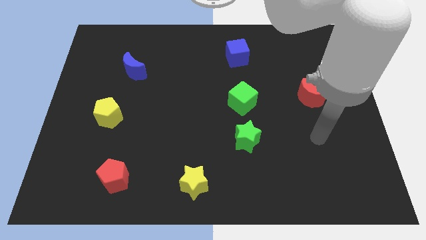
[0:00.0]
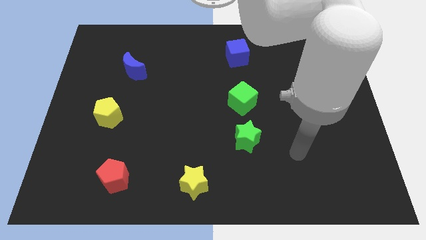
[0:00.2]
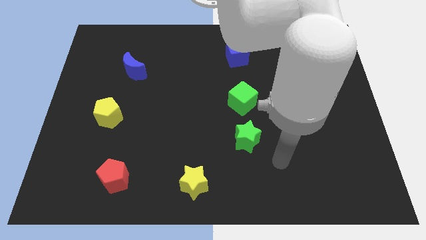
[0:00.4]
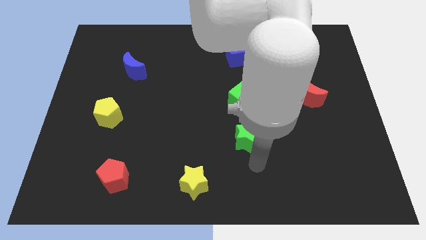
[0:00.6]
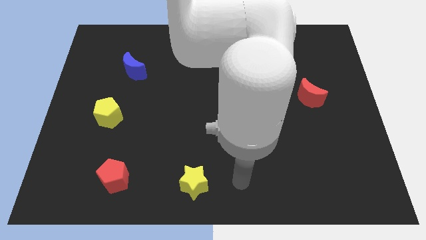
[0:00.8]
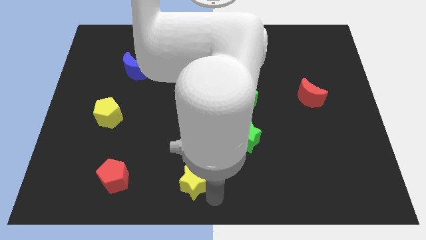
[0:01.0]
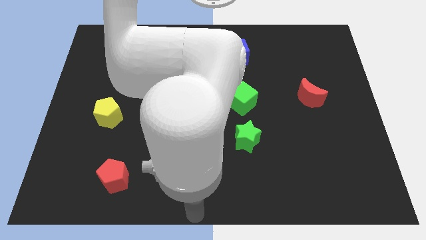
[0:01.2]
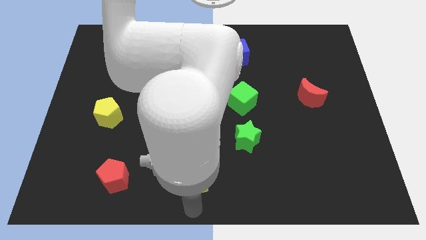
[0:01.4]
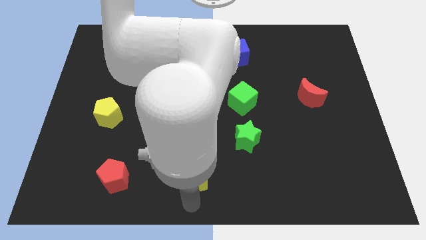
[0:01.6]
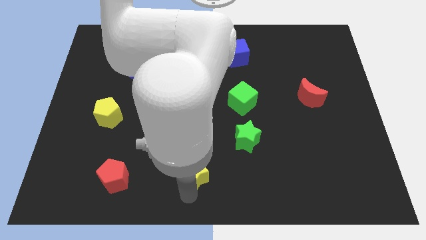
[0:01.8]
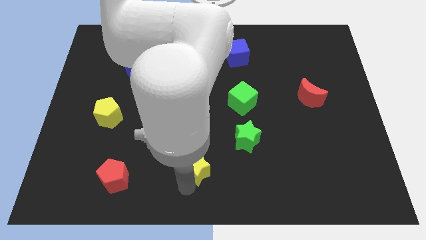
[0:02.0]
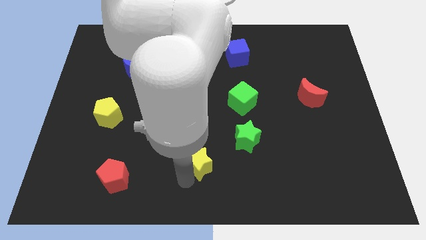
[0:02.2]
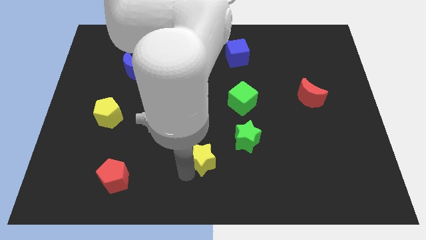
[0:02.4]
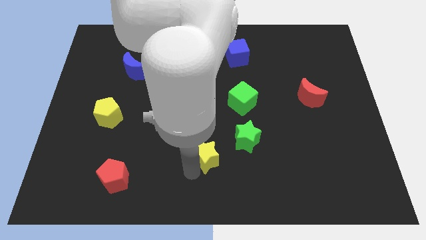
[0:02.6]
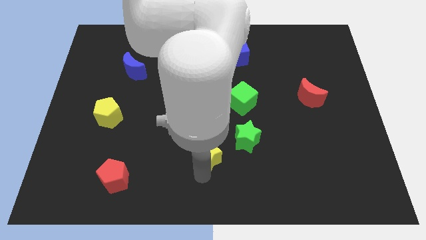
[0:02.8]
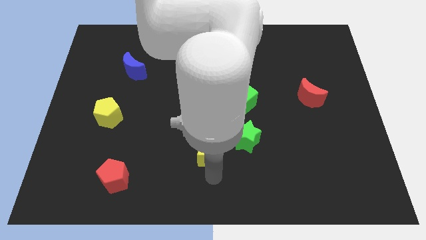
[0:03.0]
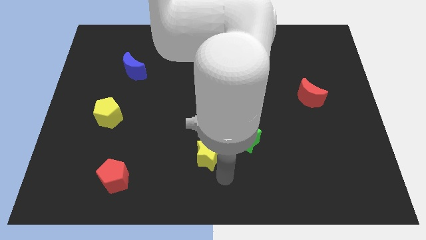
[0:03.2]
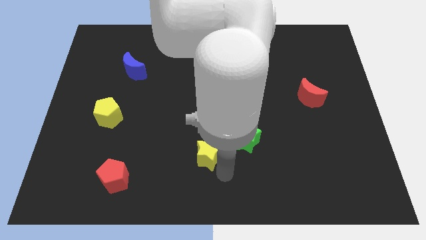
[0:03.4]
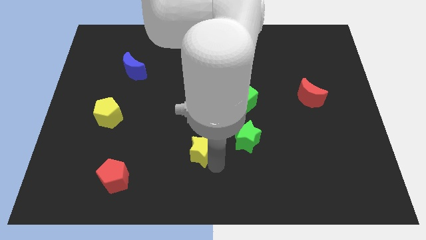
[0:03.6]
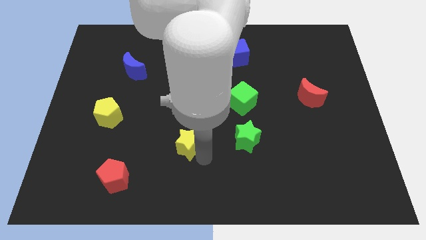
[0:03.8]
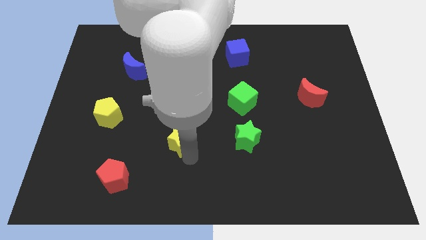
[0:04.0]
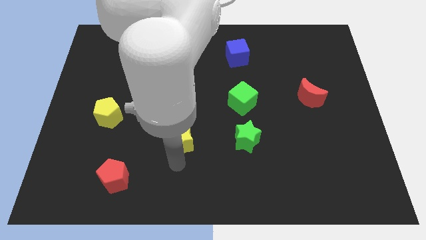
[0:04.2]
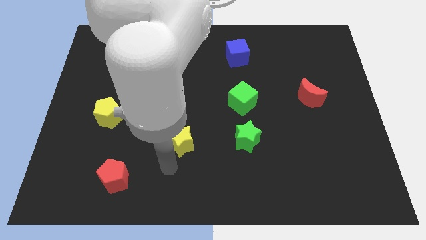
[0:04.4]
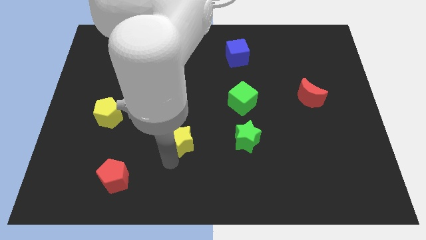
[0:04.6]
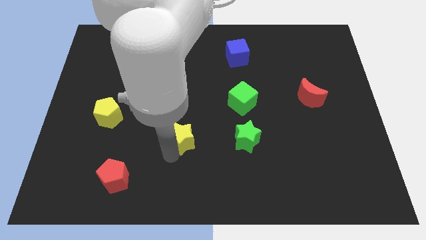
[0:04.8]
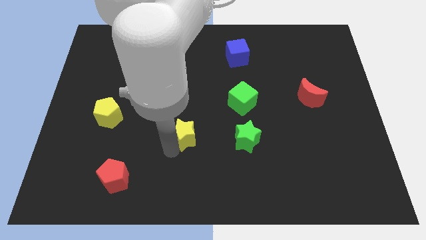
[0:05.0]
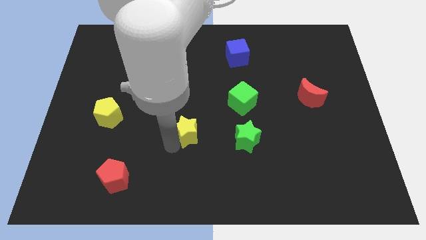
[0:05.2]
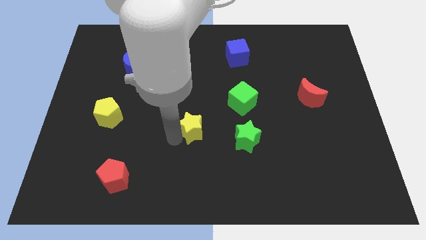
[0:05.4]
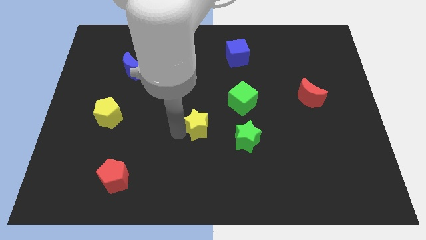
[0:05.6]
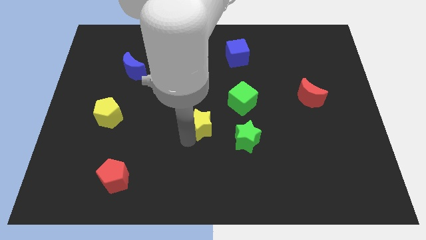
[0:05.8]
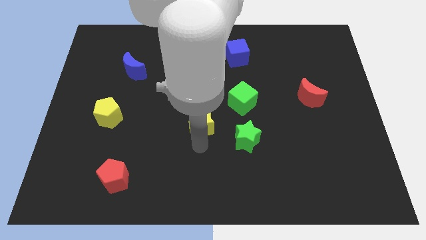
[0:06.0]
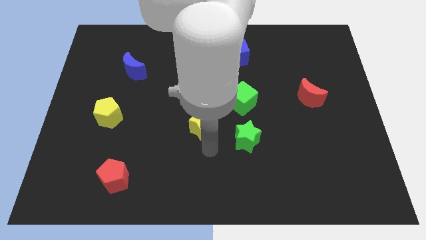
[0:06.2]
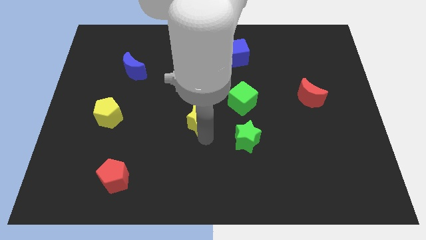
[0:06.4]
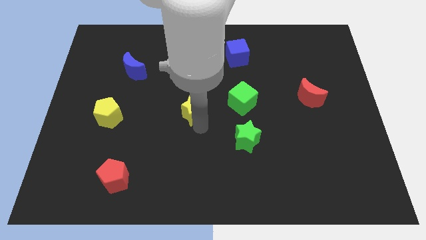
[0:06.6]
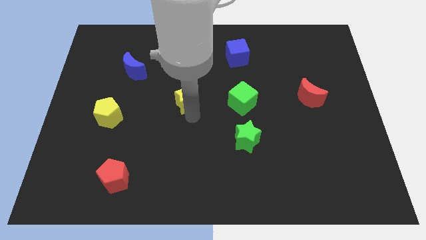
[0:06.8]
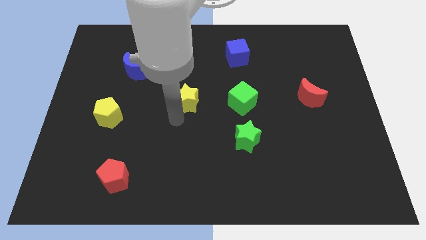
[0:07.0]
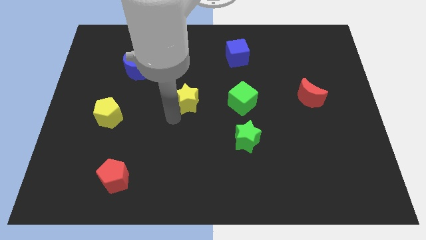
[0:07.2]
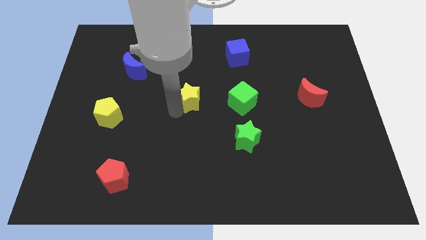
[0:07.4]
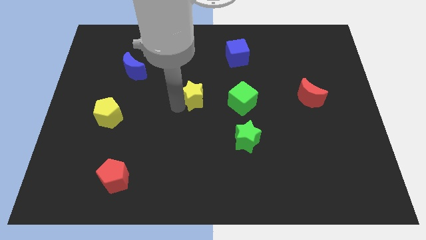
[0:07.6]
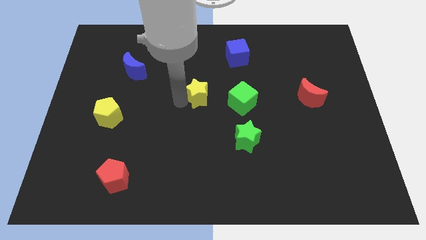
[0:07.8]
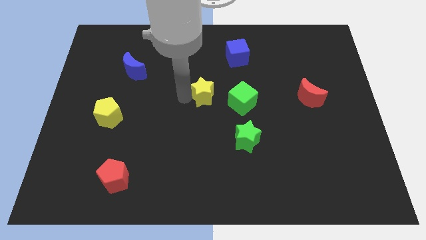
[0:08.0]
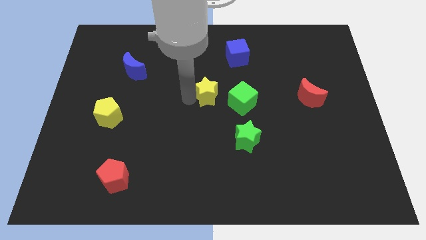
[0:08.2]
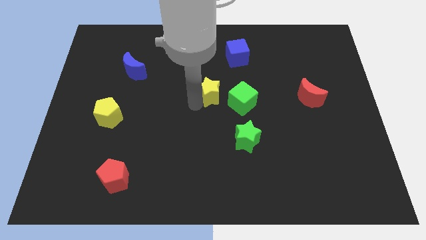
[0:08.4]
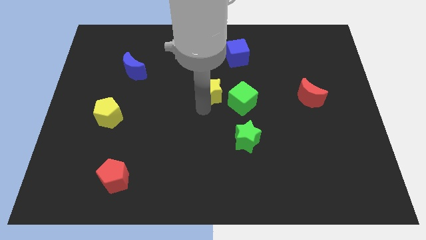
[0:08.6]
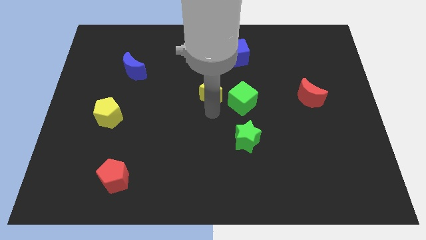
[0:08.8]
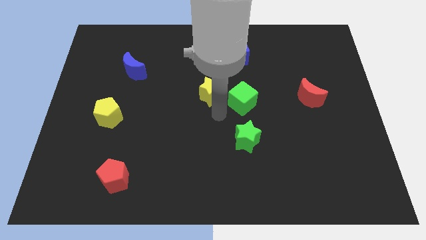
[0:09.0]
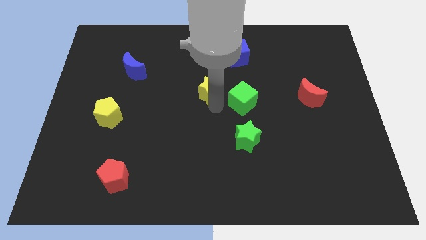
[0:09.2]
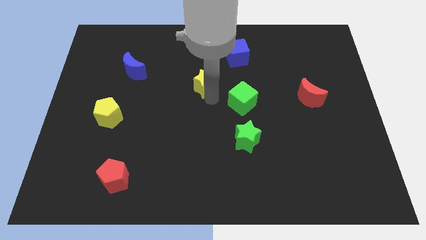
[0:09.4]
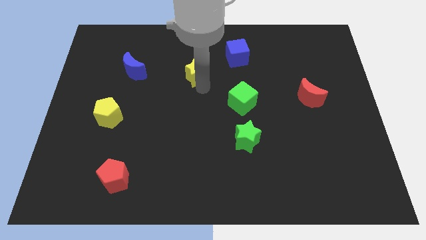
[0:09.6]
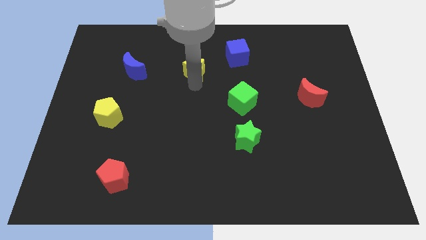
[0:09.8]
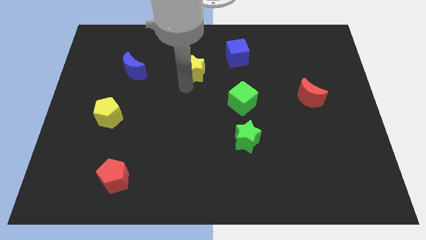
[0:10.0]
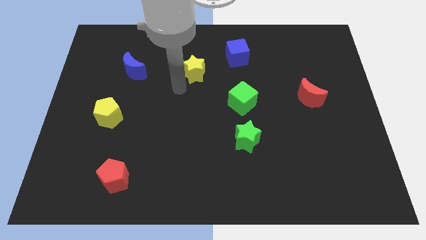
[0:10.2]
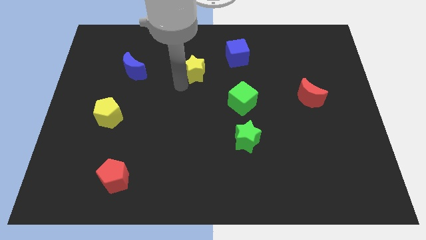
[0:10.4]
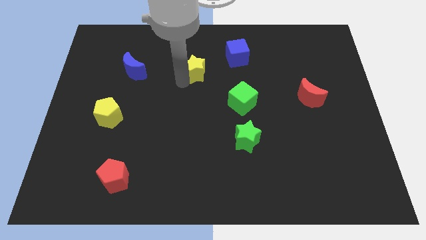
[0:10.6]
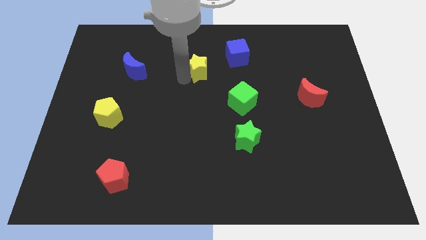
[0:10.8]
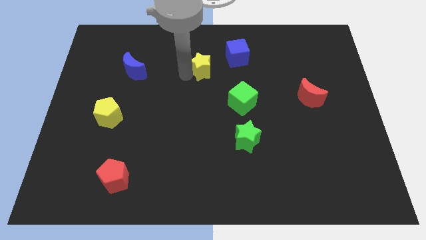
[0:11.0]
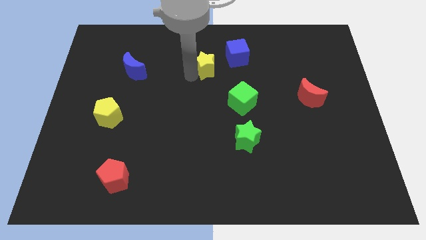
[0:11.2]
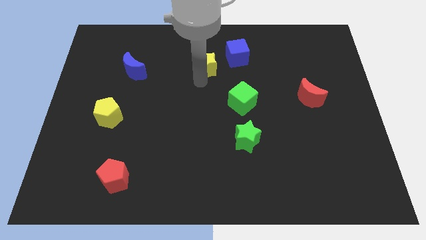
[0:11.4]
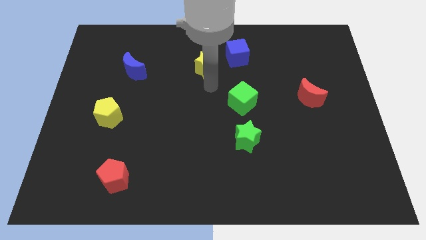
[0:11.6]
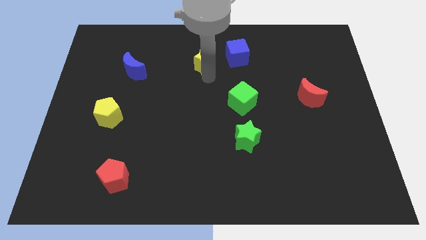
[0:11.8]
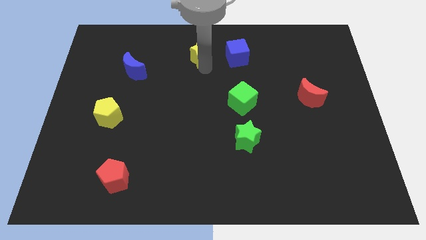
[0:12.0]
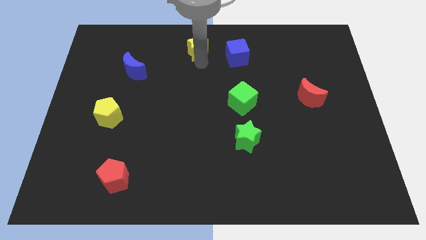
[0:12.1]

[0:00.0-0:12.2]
push the yellow star to the towards your base
